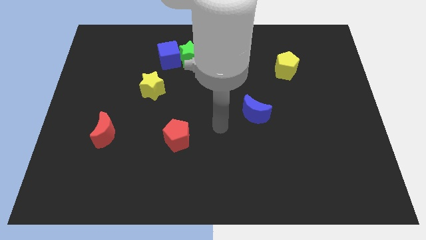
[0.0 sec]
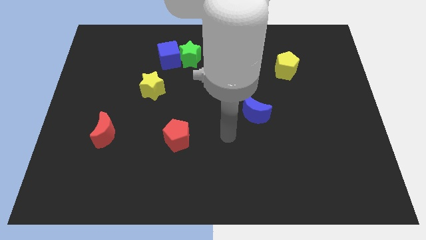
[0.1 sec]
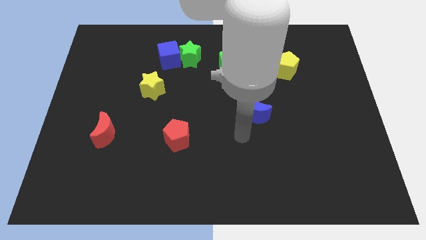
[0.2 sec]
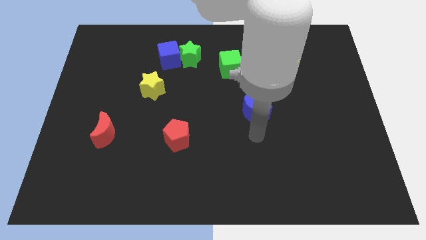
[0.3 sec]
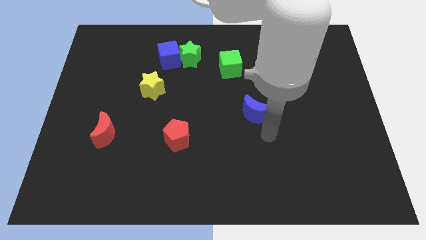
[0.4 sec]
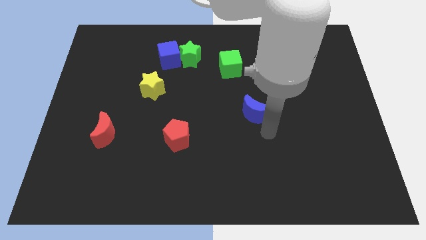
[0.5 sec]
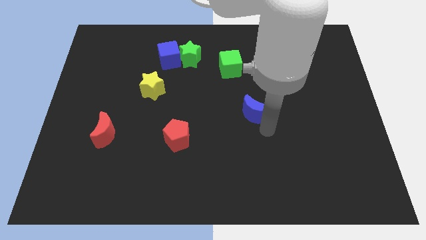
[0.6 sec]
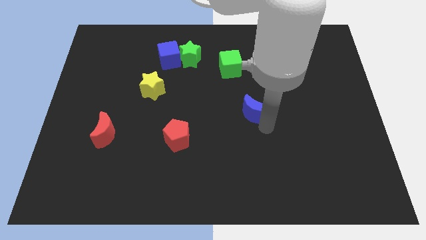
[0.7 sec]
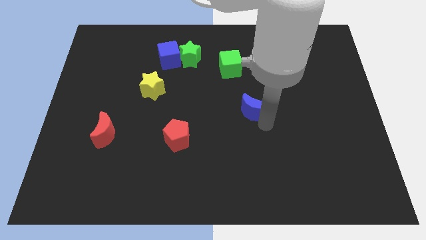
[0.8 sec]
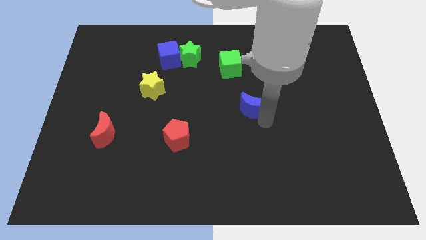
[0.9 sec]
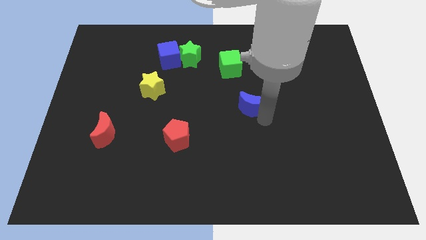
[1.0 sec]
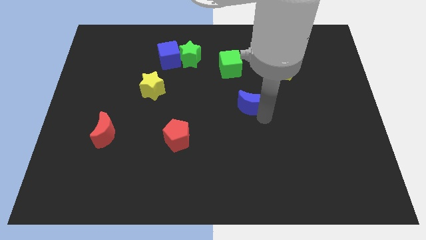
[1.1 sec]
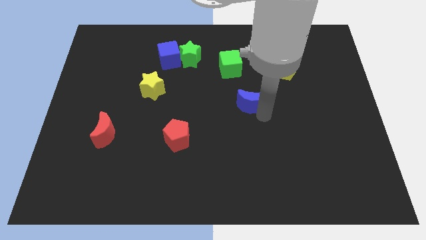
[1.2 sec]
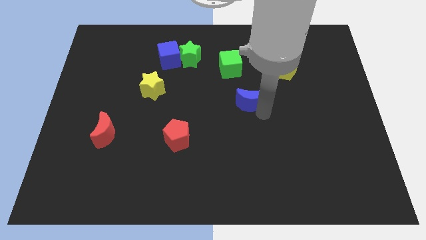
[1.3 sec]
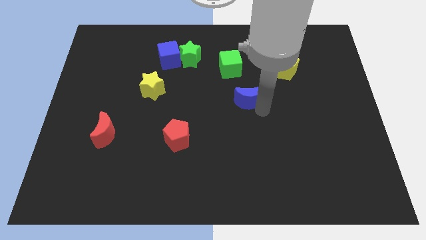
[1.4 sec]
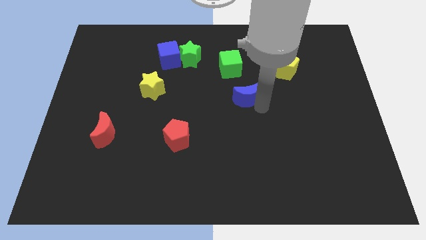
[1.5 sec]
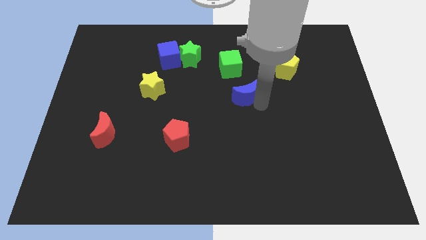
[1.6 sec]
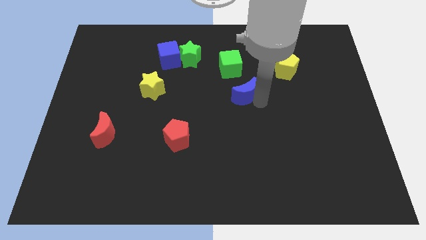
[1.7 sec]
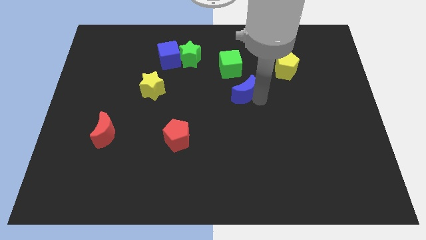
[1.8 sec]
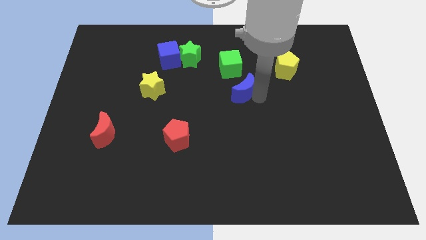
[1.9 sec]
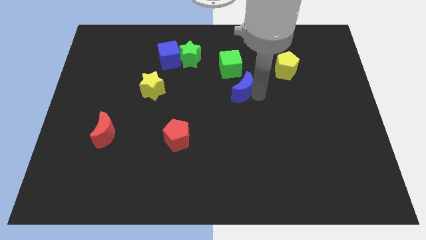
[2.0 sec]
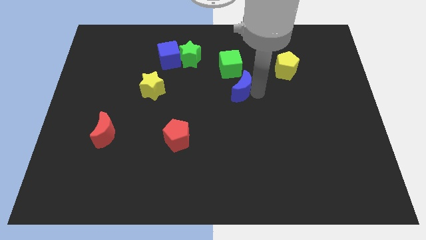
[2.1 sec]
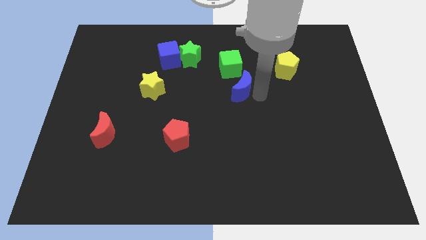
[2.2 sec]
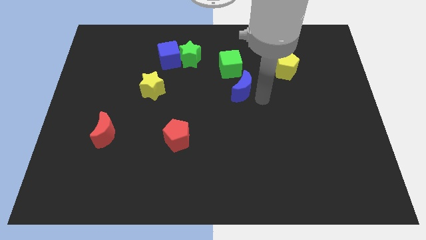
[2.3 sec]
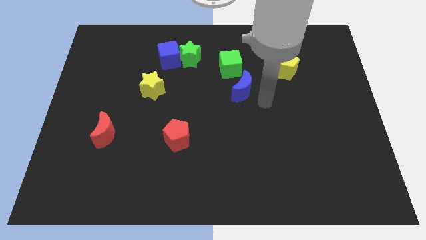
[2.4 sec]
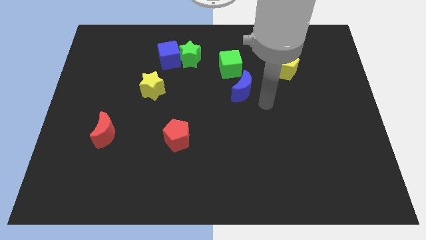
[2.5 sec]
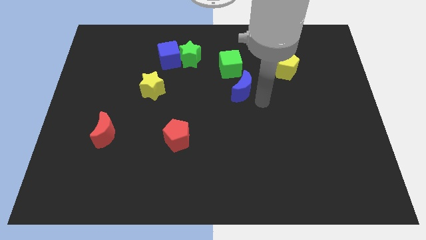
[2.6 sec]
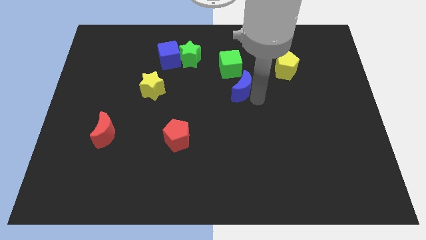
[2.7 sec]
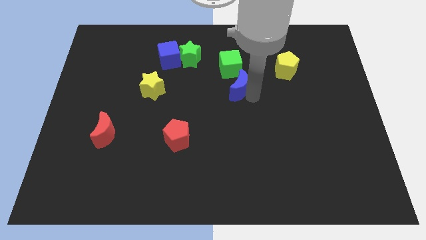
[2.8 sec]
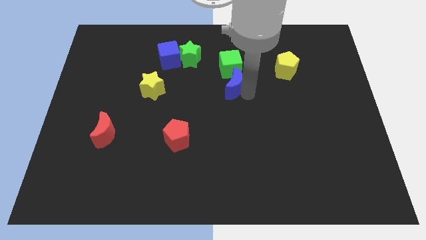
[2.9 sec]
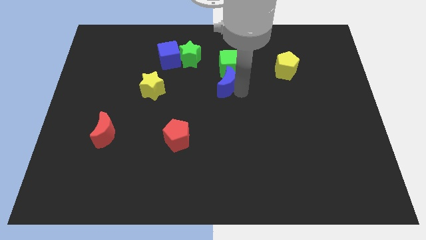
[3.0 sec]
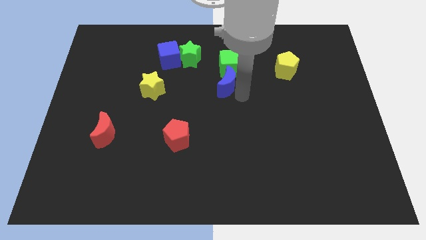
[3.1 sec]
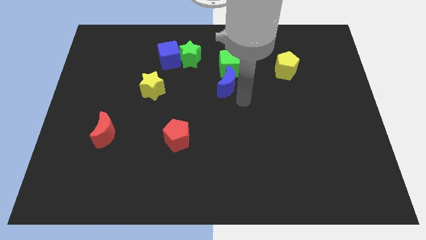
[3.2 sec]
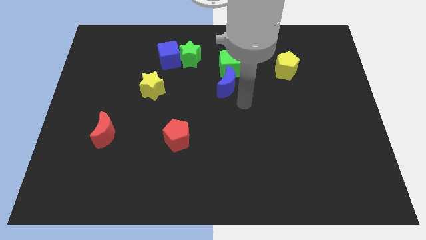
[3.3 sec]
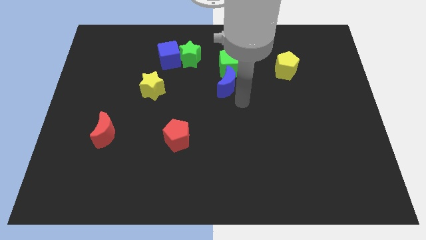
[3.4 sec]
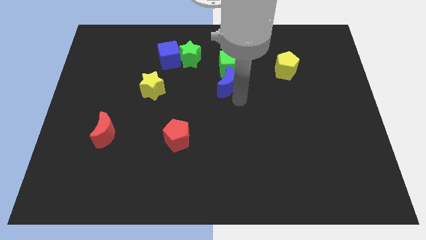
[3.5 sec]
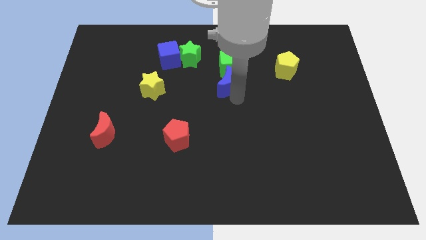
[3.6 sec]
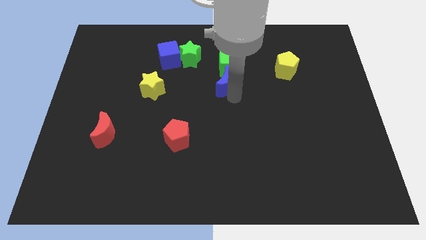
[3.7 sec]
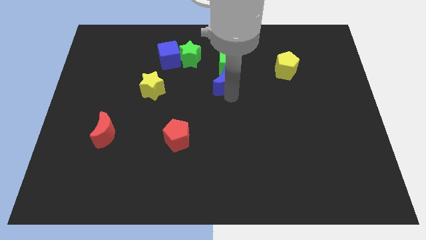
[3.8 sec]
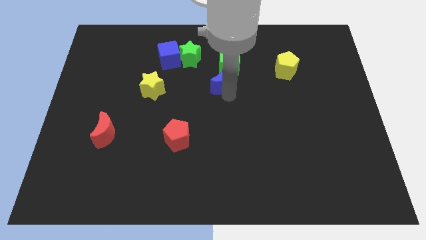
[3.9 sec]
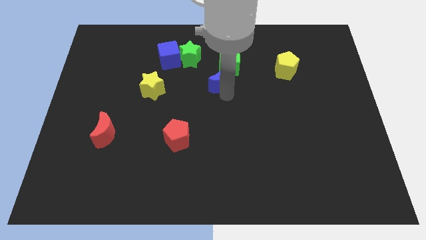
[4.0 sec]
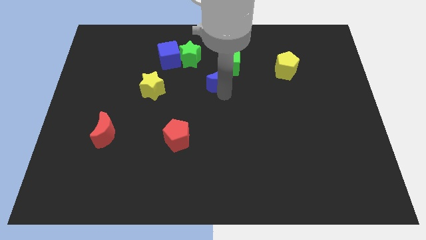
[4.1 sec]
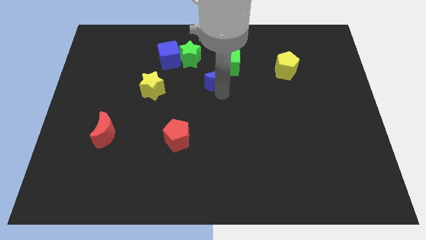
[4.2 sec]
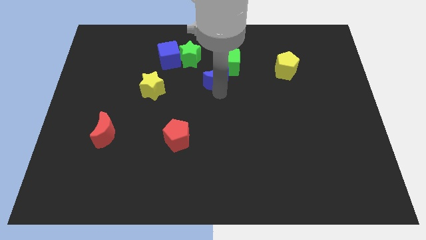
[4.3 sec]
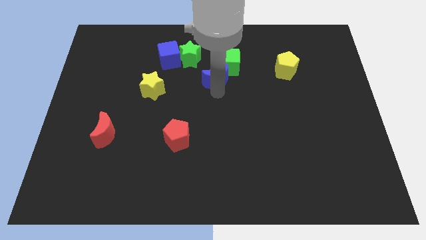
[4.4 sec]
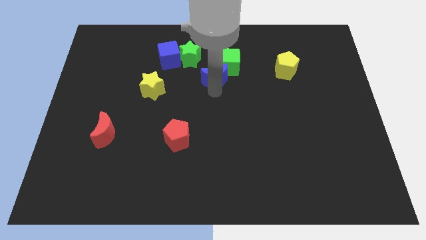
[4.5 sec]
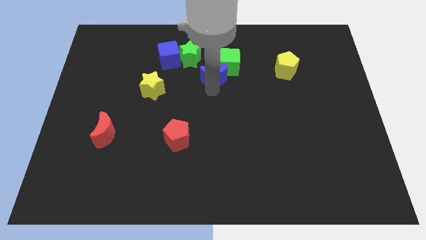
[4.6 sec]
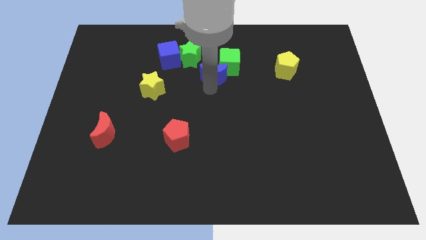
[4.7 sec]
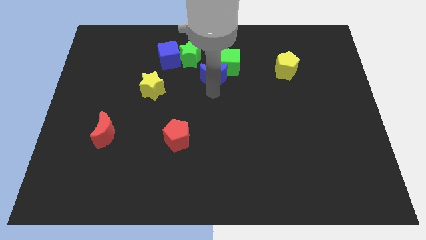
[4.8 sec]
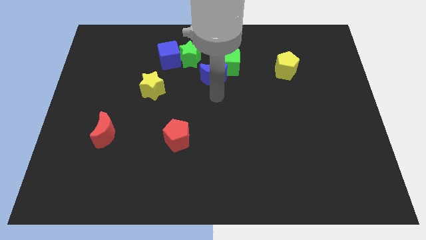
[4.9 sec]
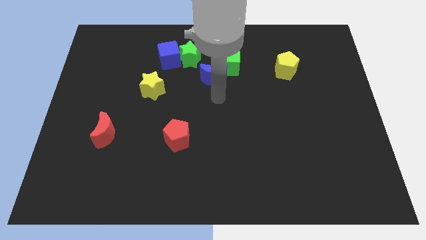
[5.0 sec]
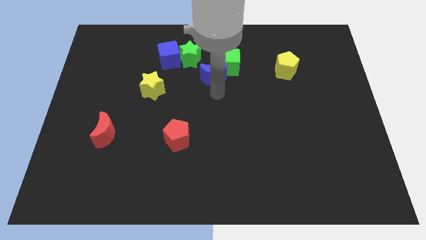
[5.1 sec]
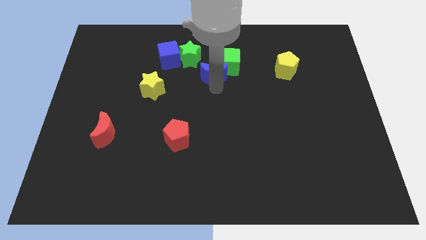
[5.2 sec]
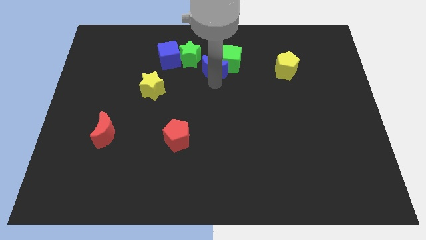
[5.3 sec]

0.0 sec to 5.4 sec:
move the blue moon to the right of the blue cube

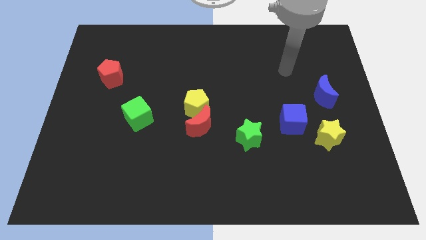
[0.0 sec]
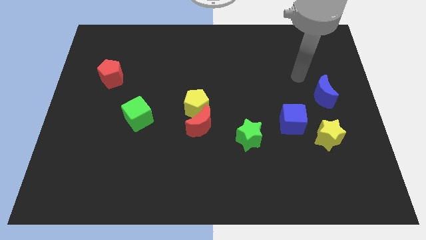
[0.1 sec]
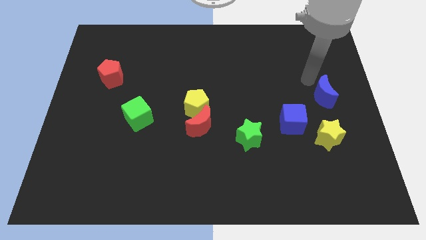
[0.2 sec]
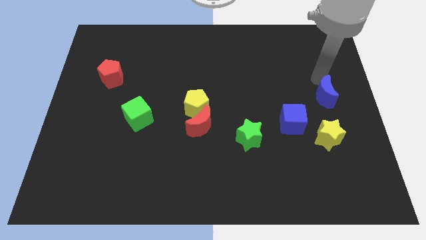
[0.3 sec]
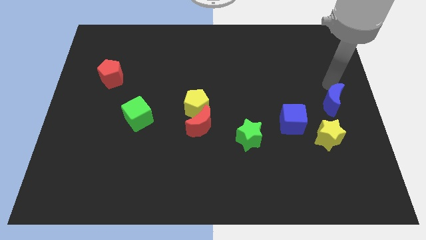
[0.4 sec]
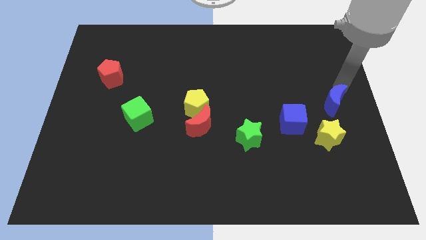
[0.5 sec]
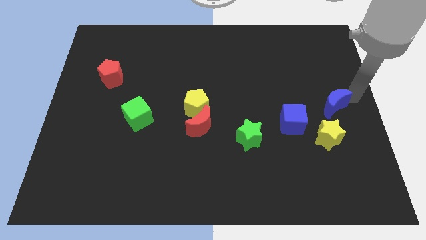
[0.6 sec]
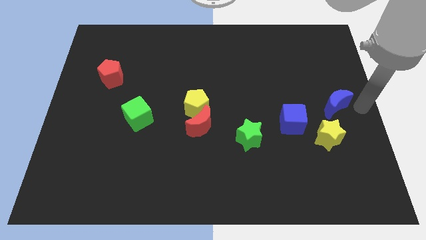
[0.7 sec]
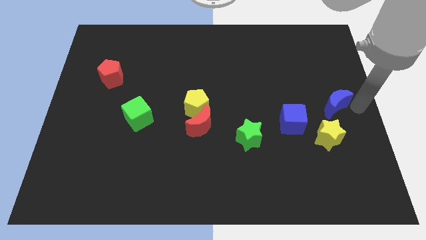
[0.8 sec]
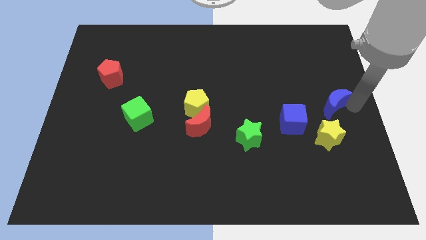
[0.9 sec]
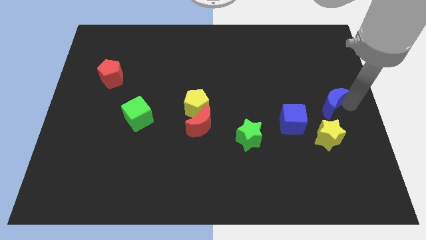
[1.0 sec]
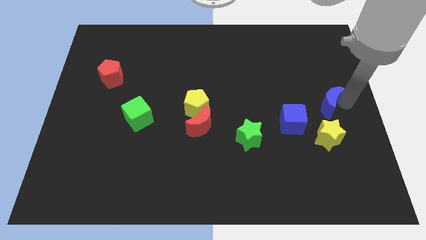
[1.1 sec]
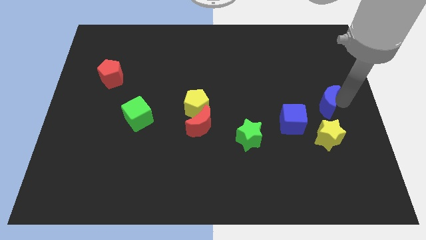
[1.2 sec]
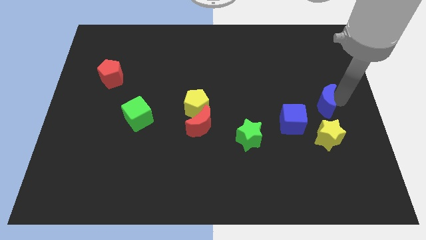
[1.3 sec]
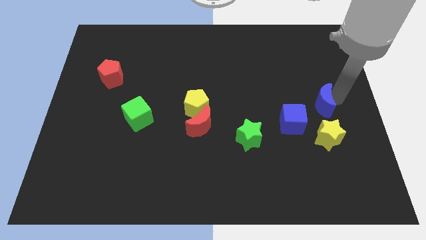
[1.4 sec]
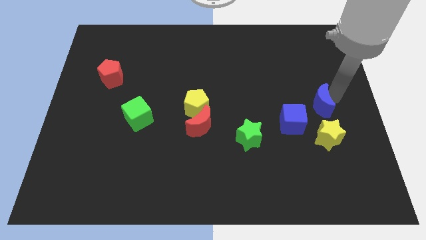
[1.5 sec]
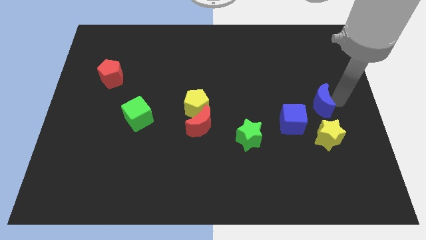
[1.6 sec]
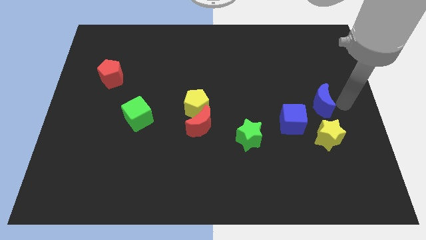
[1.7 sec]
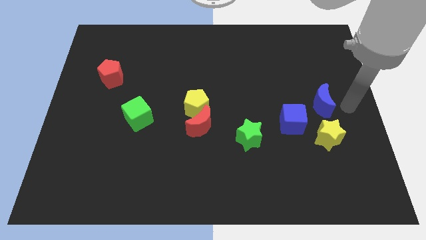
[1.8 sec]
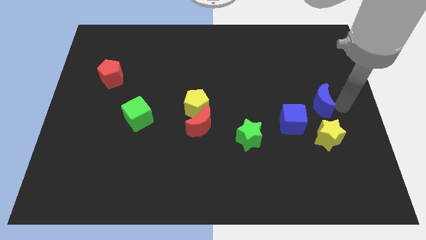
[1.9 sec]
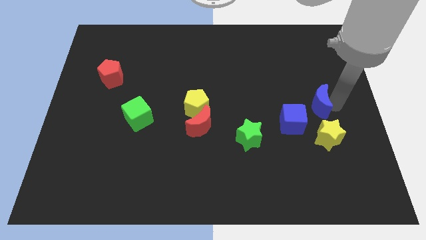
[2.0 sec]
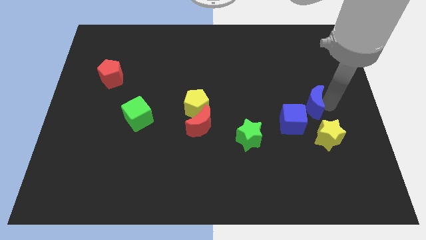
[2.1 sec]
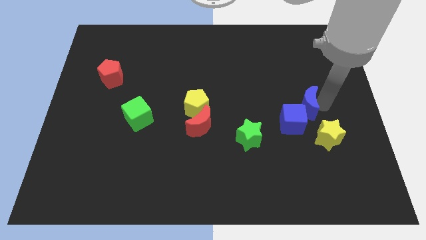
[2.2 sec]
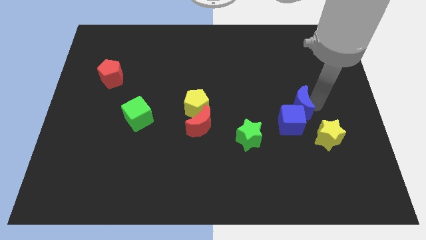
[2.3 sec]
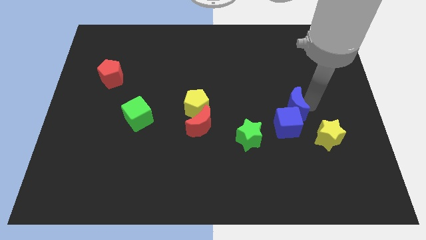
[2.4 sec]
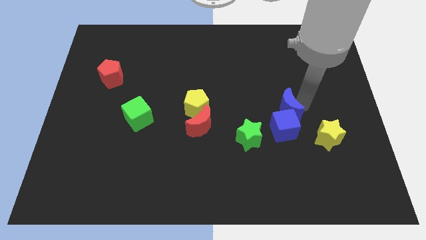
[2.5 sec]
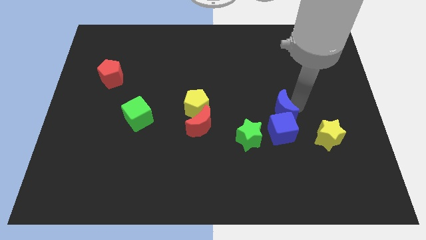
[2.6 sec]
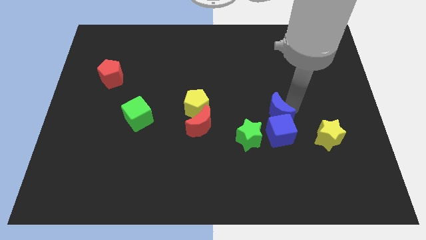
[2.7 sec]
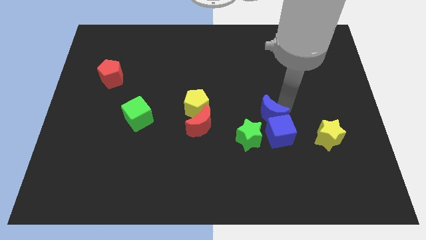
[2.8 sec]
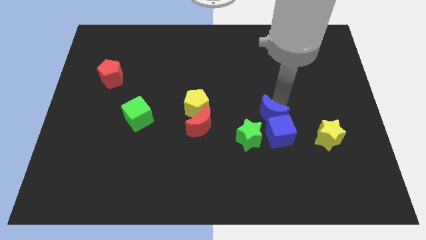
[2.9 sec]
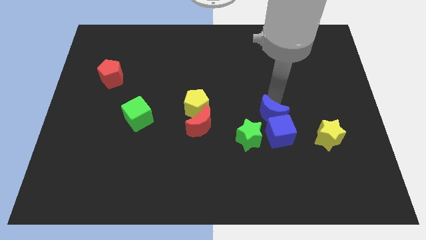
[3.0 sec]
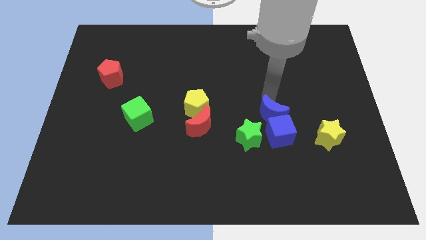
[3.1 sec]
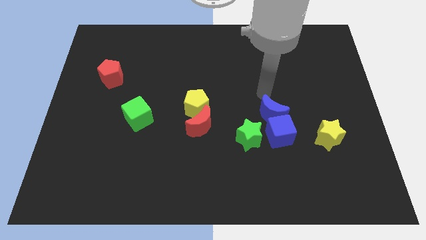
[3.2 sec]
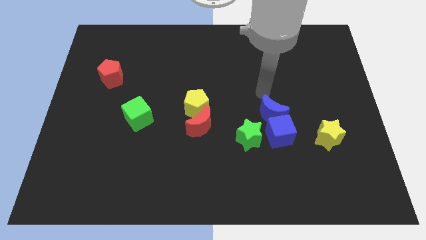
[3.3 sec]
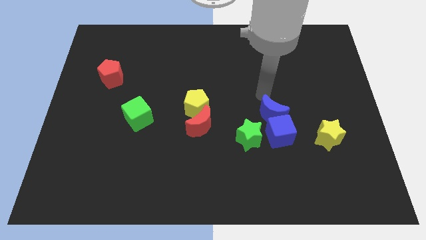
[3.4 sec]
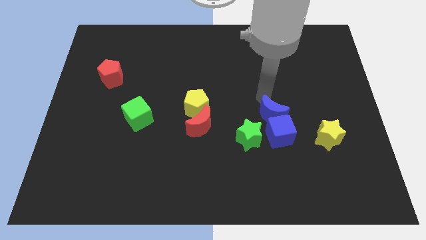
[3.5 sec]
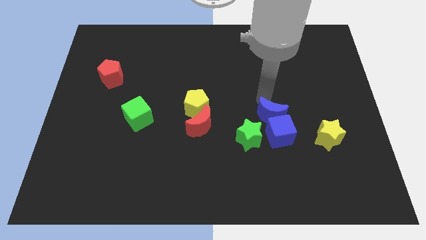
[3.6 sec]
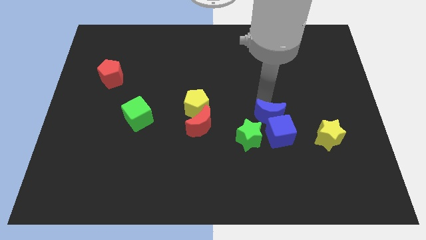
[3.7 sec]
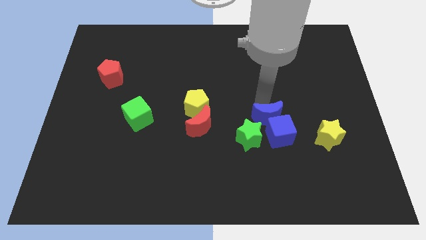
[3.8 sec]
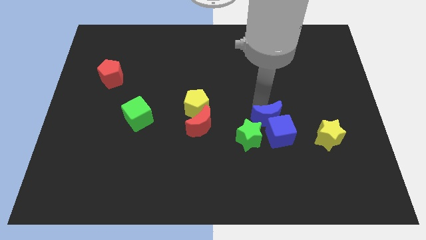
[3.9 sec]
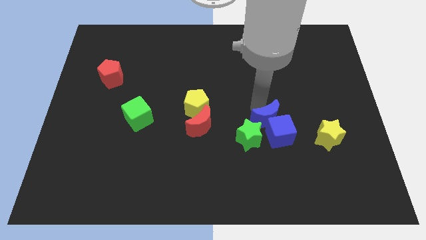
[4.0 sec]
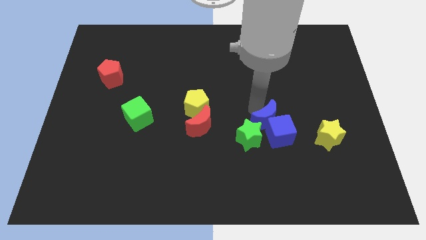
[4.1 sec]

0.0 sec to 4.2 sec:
push the blue moon to the left side of the yellow star
